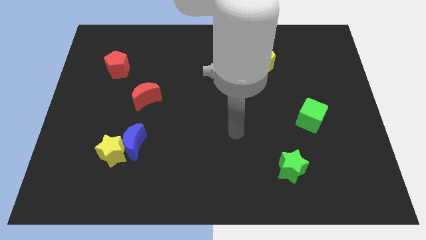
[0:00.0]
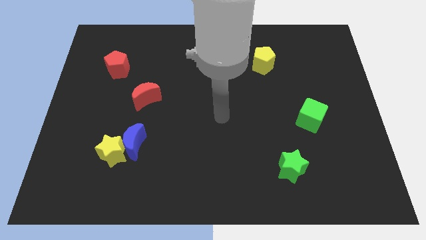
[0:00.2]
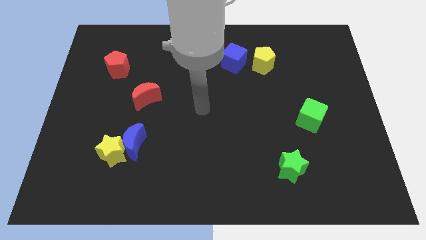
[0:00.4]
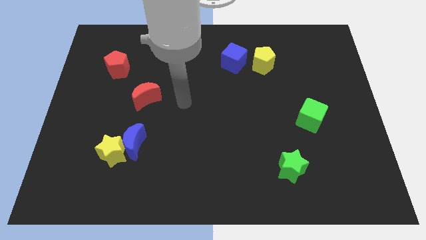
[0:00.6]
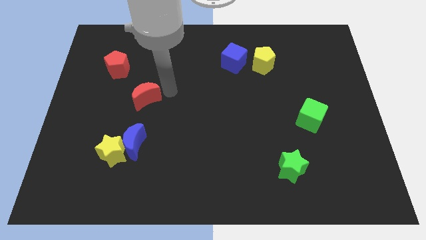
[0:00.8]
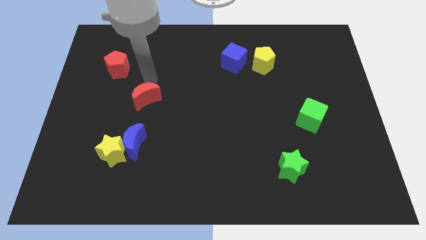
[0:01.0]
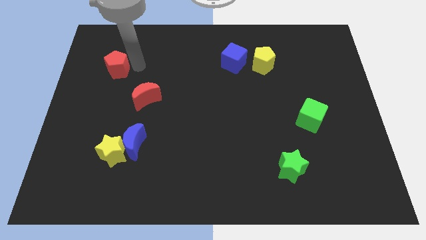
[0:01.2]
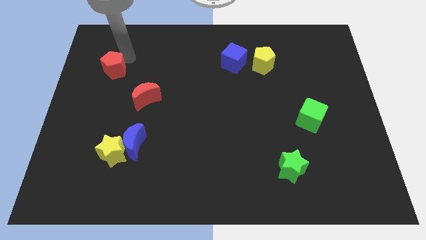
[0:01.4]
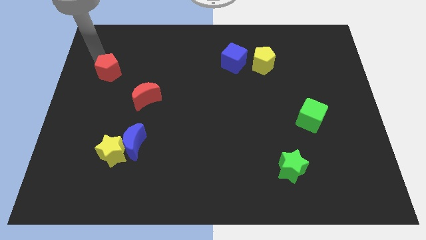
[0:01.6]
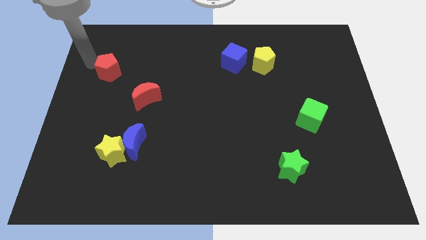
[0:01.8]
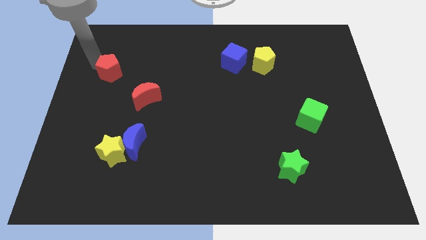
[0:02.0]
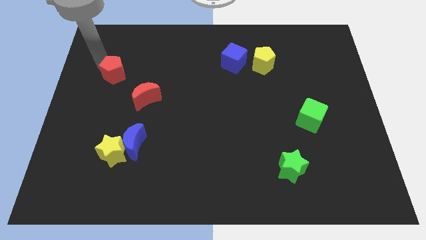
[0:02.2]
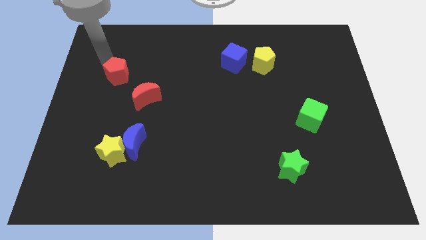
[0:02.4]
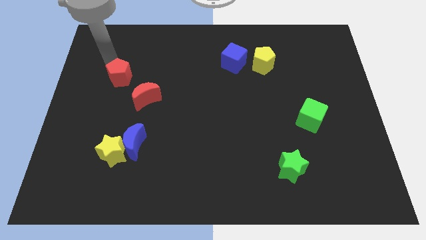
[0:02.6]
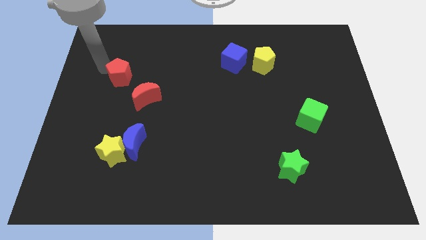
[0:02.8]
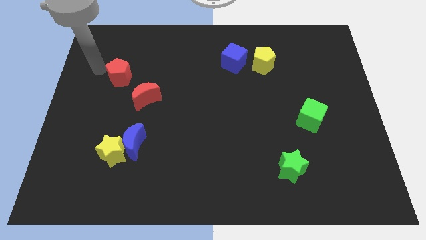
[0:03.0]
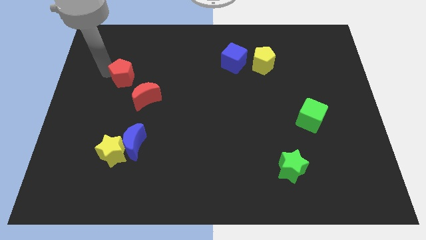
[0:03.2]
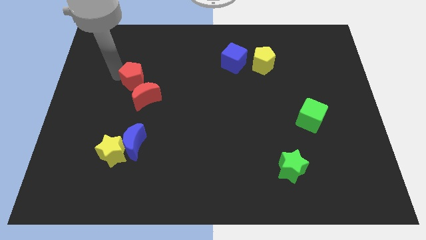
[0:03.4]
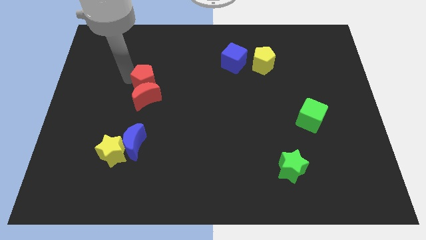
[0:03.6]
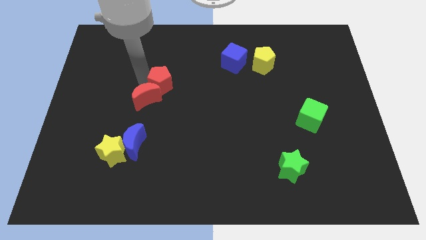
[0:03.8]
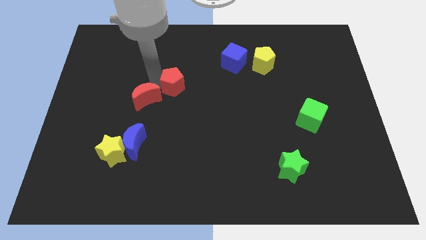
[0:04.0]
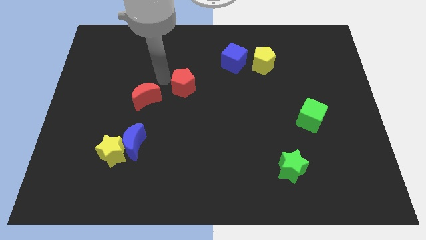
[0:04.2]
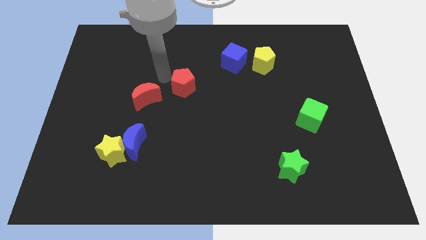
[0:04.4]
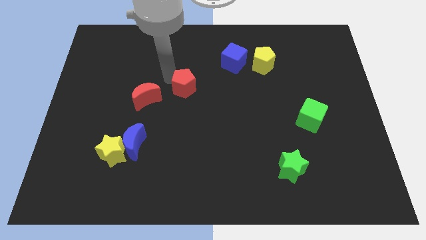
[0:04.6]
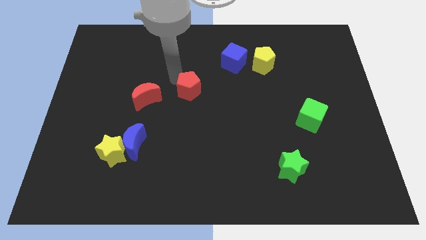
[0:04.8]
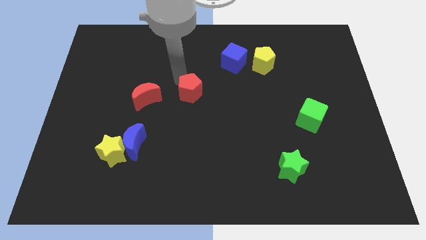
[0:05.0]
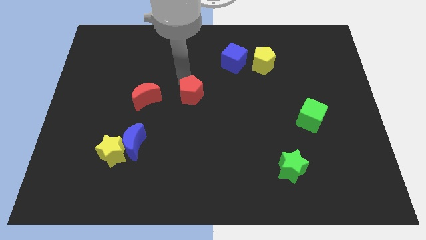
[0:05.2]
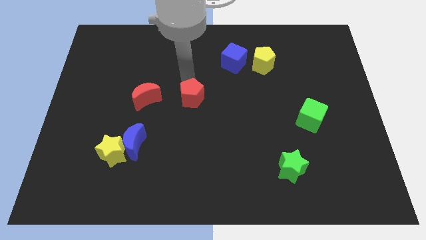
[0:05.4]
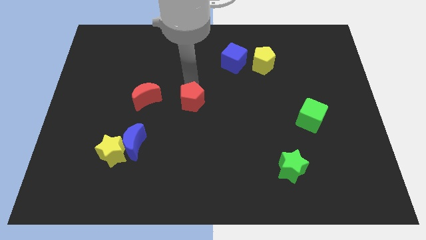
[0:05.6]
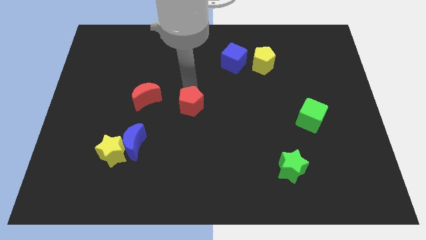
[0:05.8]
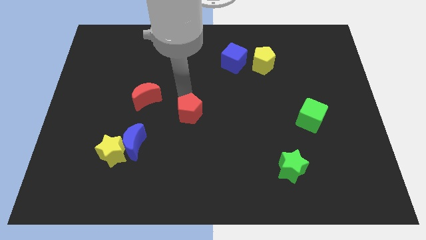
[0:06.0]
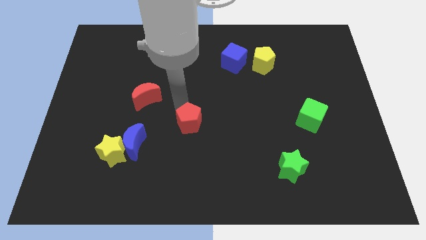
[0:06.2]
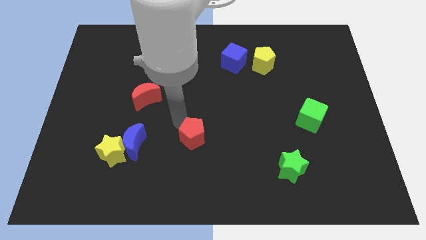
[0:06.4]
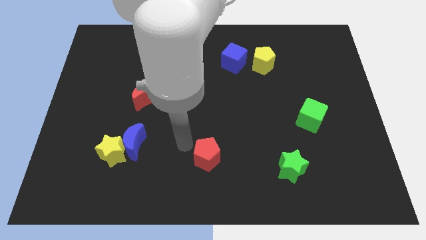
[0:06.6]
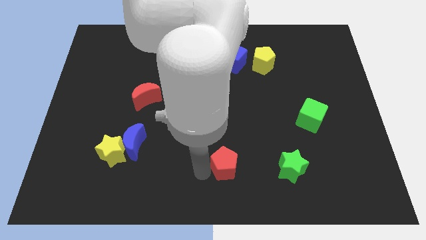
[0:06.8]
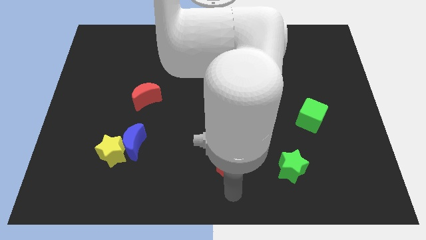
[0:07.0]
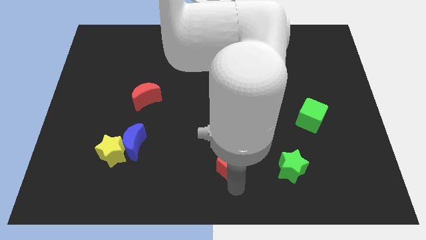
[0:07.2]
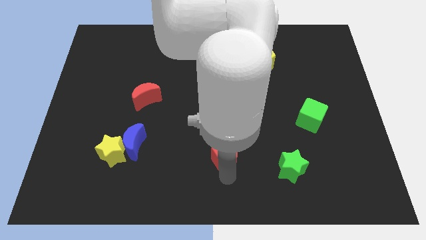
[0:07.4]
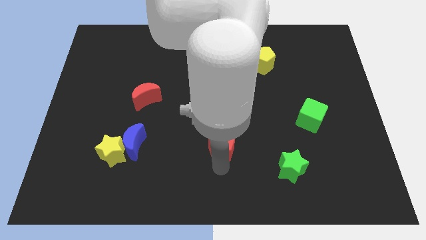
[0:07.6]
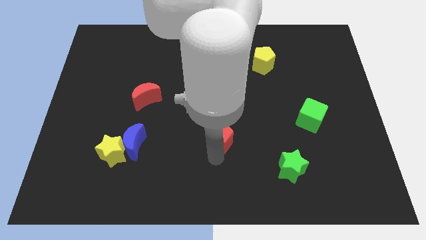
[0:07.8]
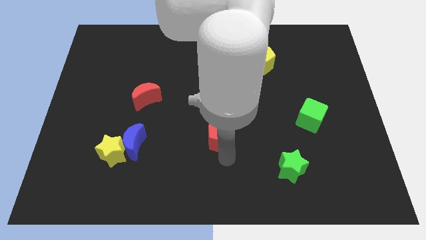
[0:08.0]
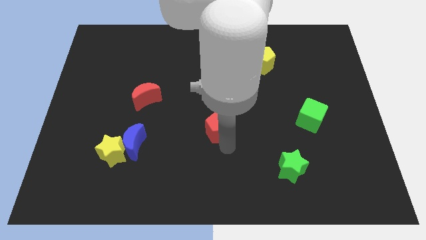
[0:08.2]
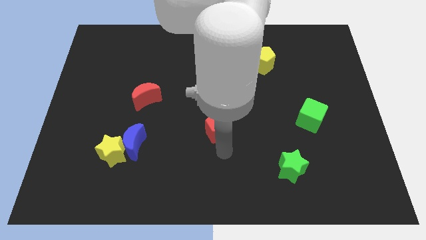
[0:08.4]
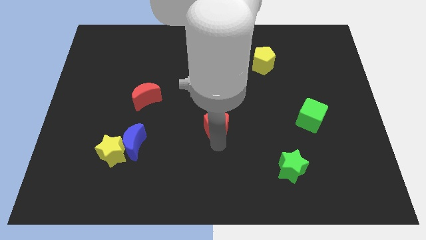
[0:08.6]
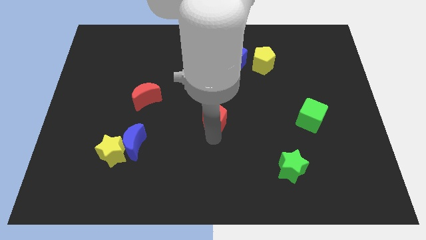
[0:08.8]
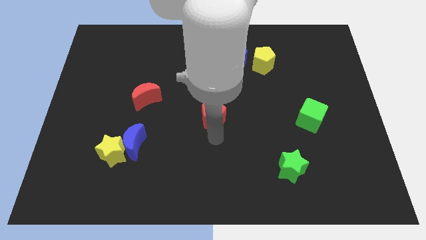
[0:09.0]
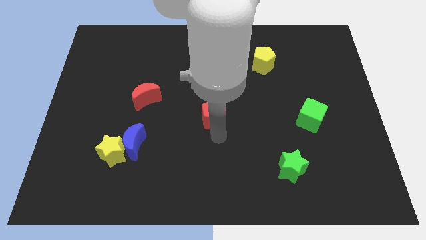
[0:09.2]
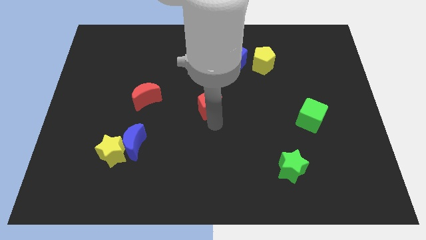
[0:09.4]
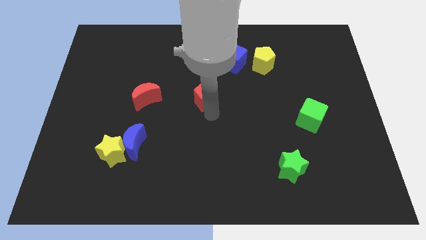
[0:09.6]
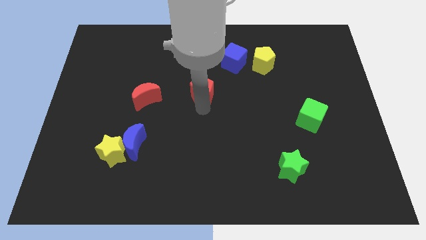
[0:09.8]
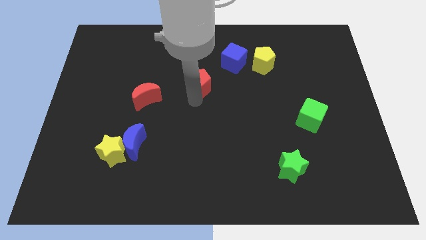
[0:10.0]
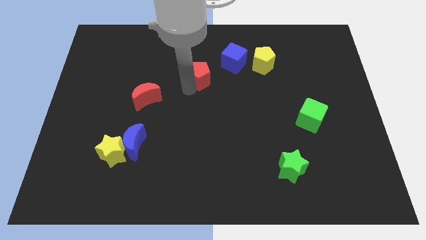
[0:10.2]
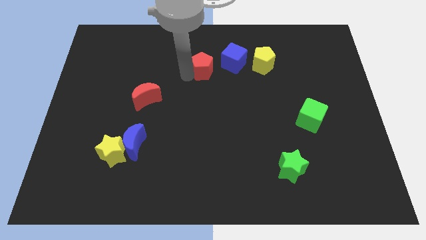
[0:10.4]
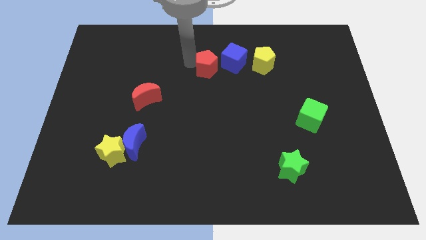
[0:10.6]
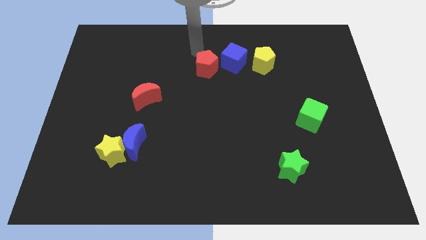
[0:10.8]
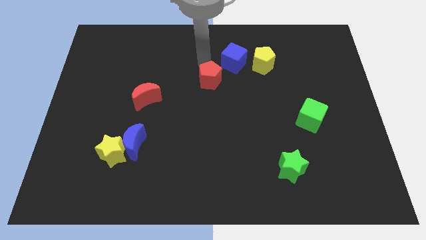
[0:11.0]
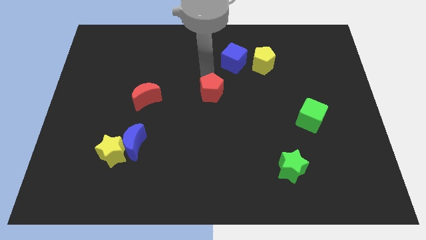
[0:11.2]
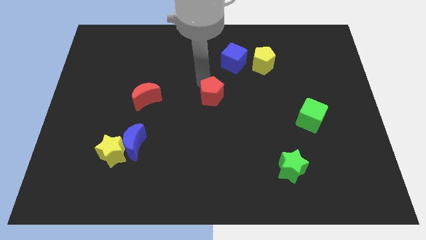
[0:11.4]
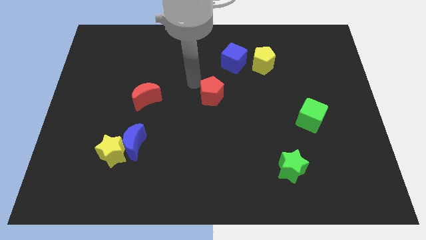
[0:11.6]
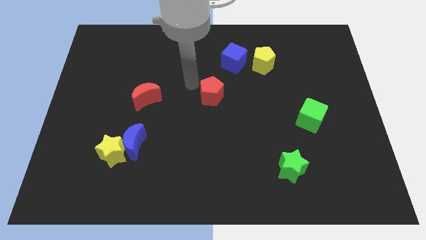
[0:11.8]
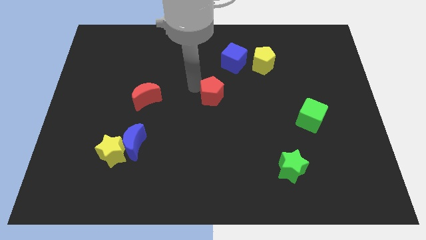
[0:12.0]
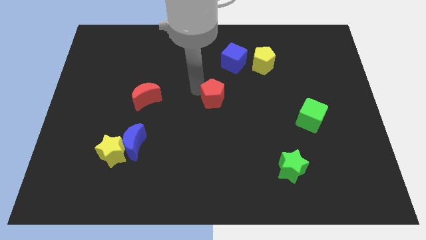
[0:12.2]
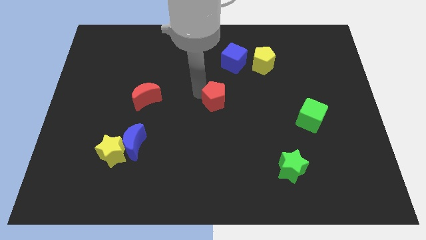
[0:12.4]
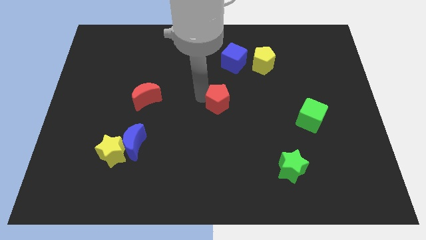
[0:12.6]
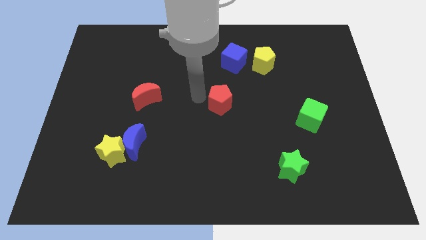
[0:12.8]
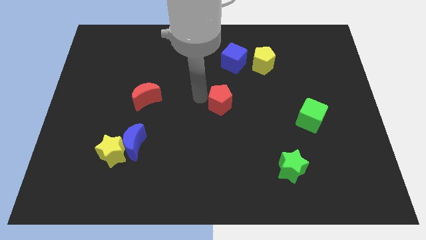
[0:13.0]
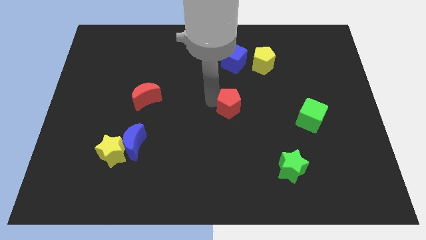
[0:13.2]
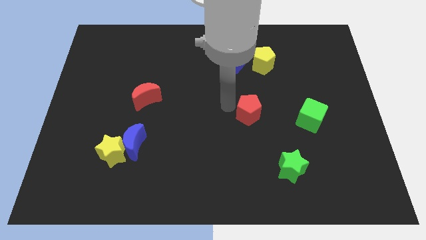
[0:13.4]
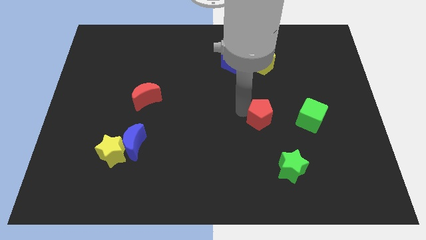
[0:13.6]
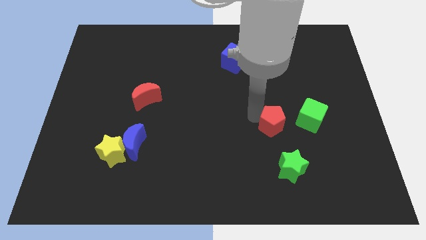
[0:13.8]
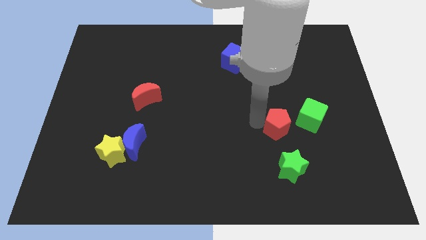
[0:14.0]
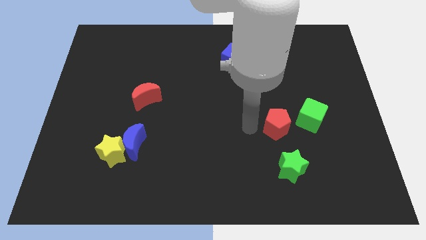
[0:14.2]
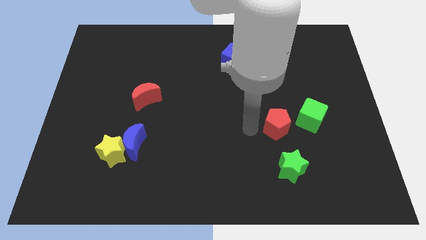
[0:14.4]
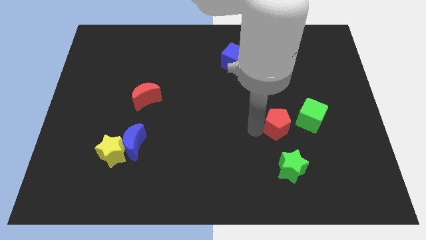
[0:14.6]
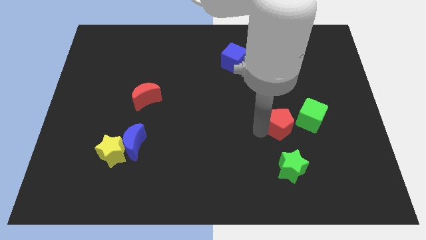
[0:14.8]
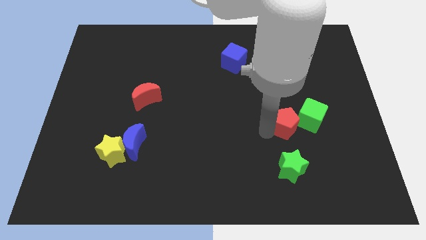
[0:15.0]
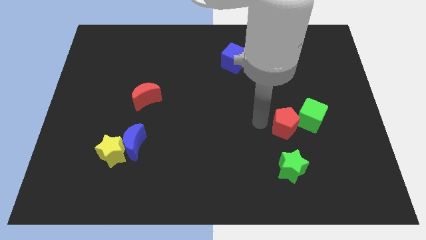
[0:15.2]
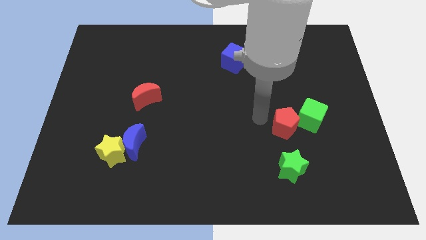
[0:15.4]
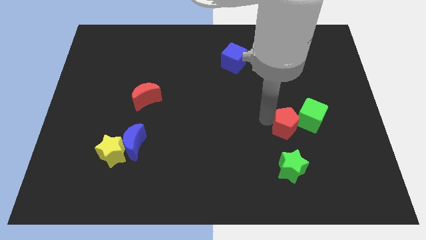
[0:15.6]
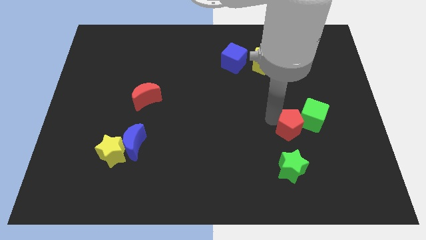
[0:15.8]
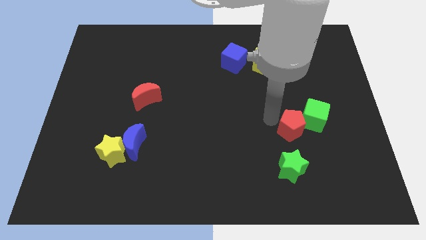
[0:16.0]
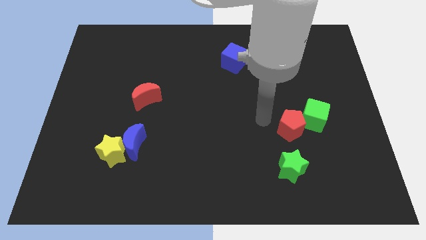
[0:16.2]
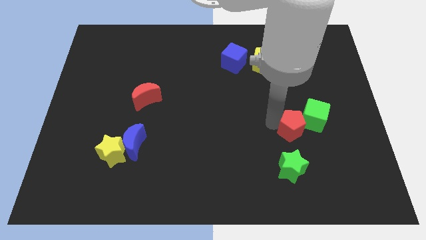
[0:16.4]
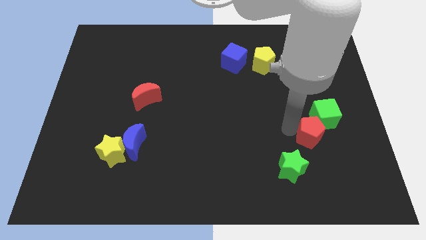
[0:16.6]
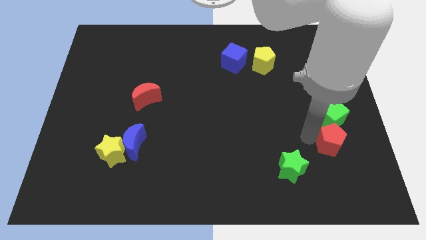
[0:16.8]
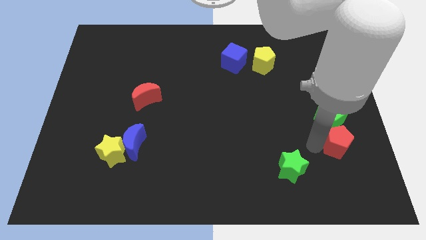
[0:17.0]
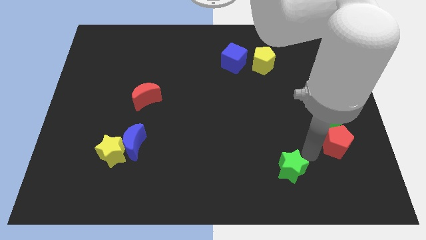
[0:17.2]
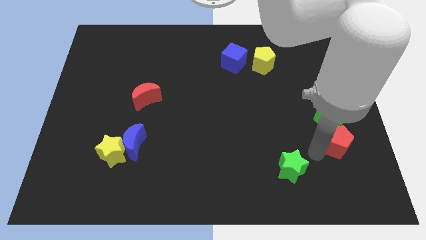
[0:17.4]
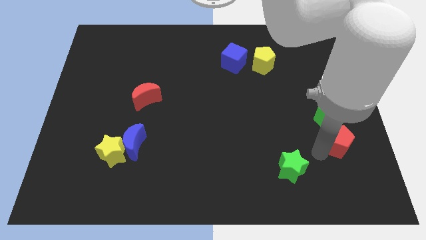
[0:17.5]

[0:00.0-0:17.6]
push the red pentagon to the bottom right of the green cube
